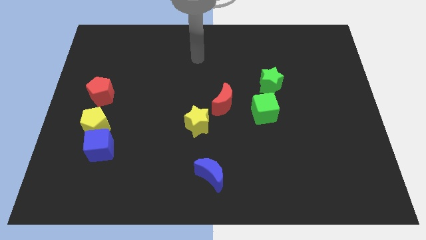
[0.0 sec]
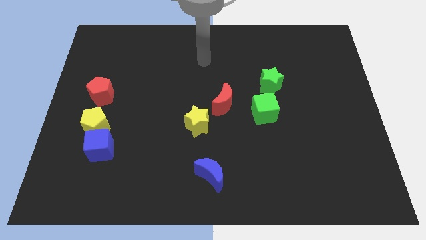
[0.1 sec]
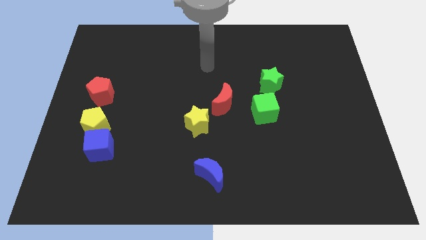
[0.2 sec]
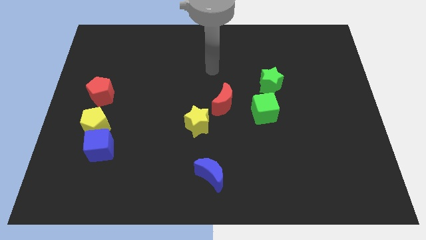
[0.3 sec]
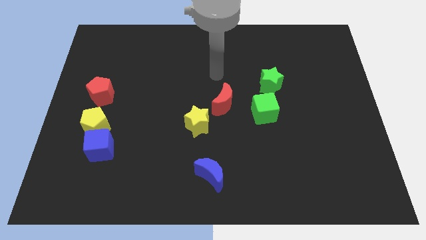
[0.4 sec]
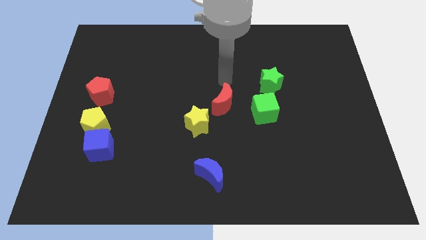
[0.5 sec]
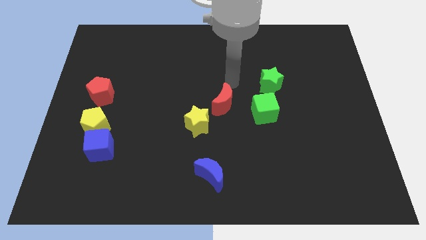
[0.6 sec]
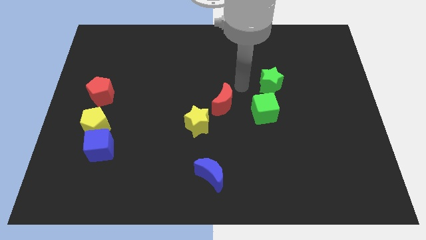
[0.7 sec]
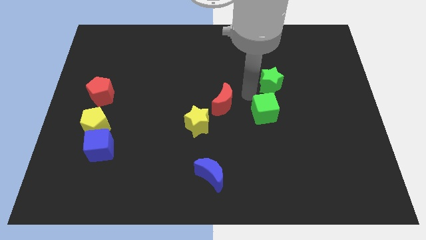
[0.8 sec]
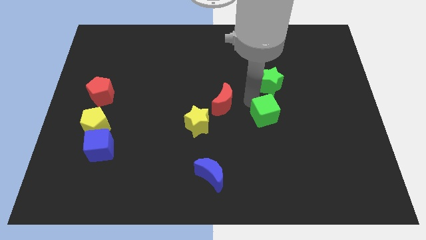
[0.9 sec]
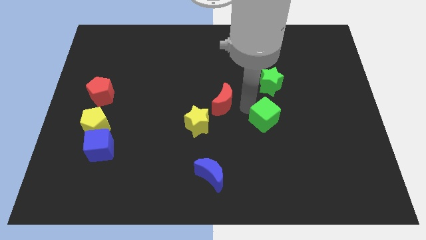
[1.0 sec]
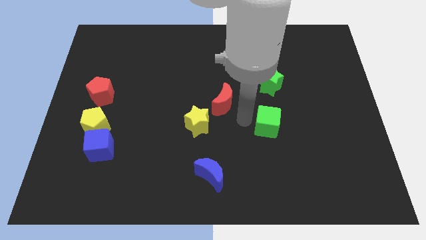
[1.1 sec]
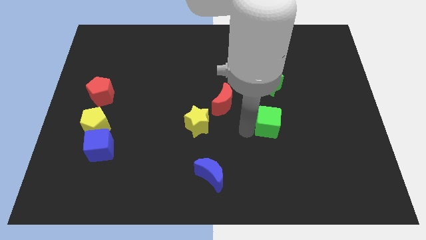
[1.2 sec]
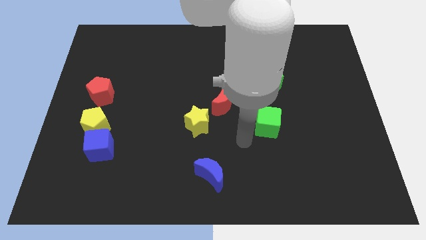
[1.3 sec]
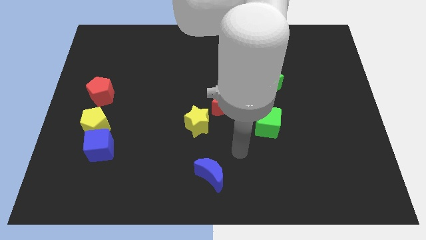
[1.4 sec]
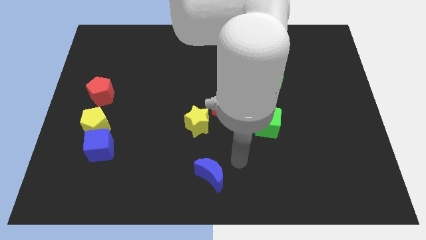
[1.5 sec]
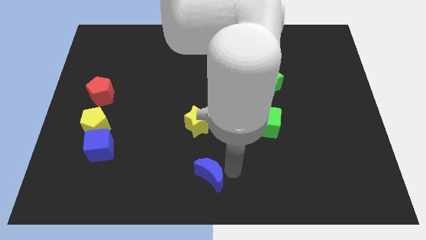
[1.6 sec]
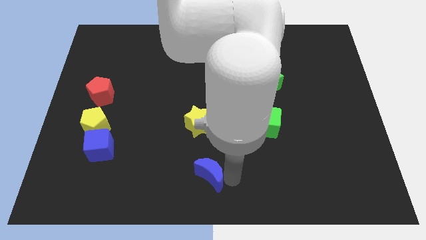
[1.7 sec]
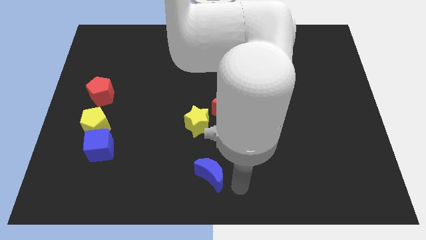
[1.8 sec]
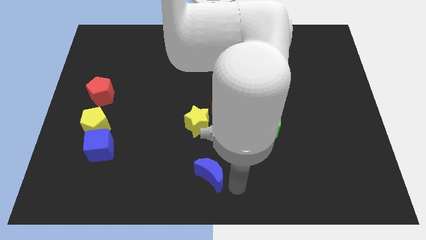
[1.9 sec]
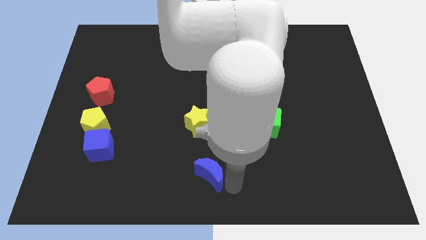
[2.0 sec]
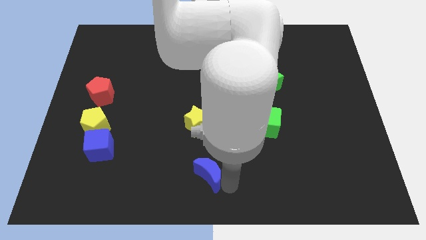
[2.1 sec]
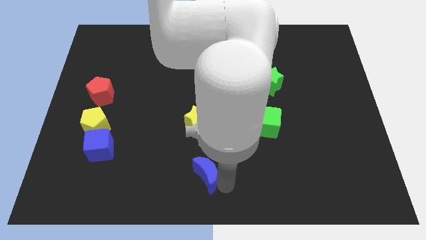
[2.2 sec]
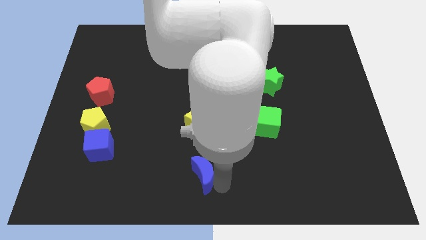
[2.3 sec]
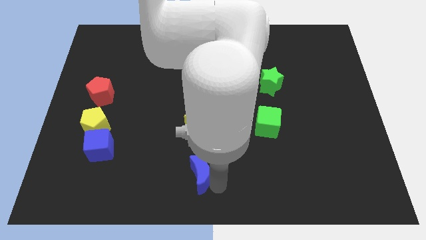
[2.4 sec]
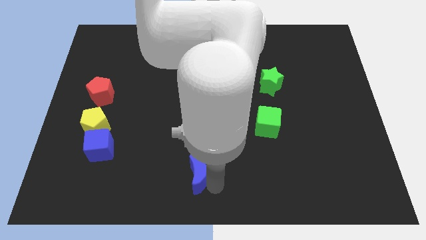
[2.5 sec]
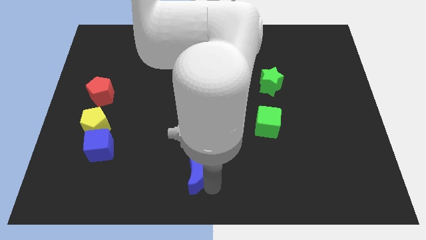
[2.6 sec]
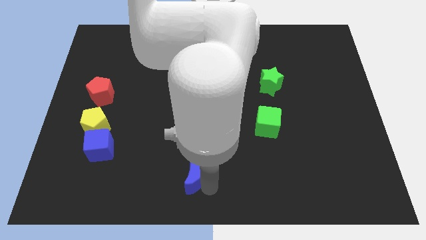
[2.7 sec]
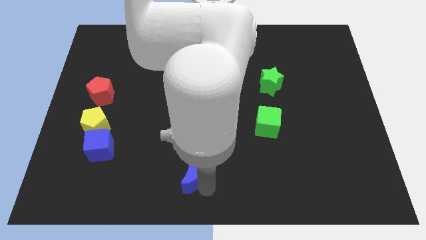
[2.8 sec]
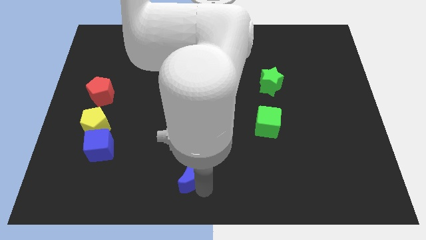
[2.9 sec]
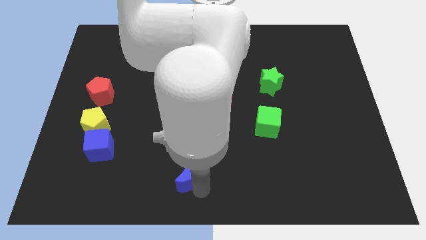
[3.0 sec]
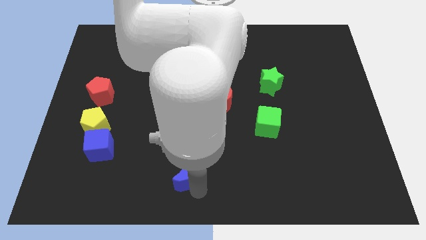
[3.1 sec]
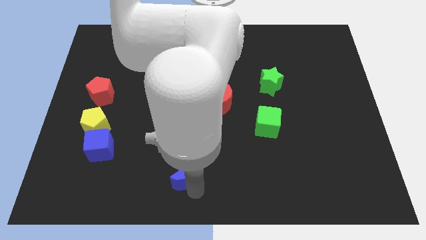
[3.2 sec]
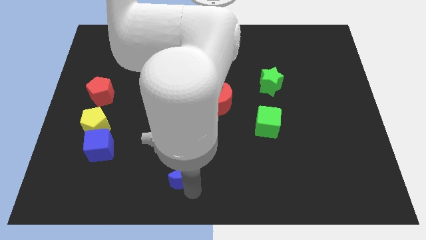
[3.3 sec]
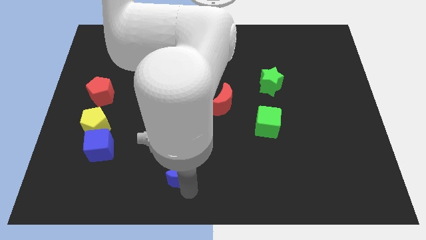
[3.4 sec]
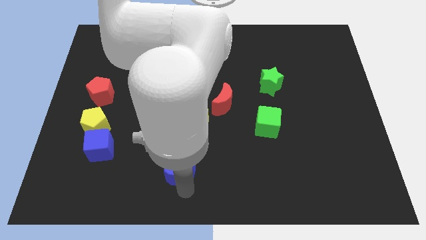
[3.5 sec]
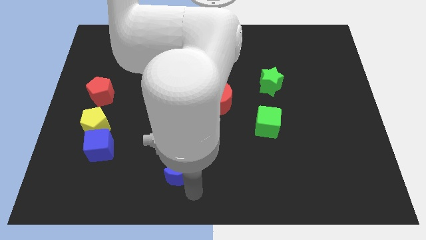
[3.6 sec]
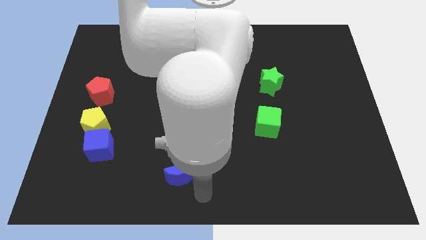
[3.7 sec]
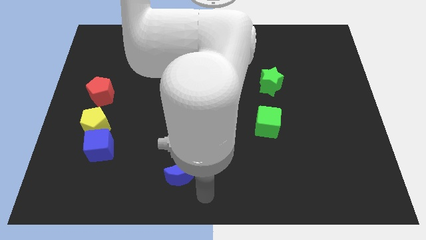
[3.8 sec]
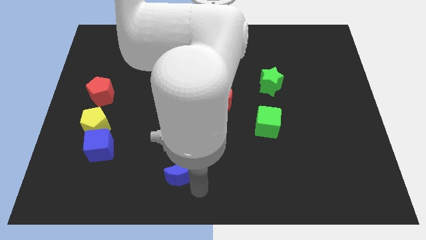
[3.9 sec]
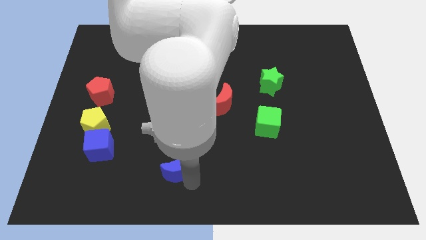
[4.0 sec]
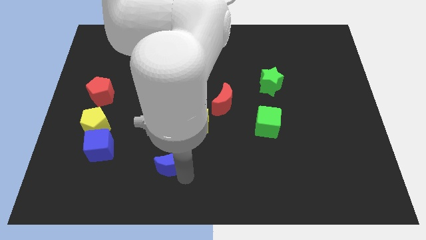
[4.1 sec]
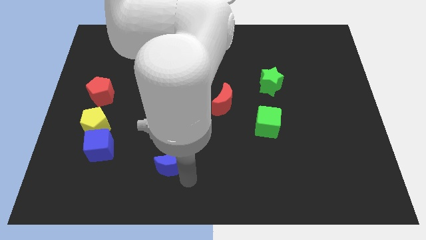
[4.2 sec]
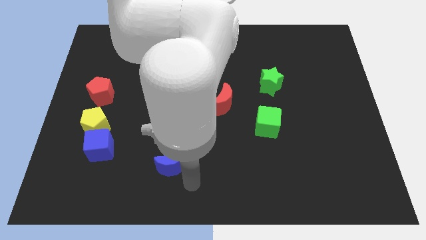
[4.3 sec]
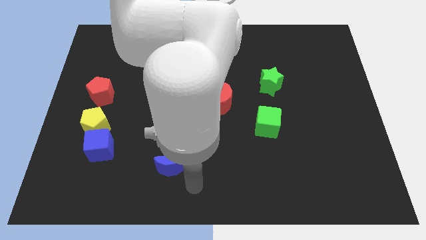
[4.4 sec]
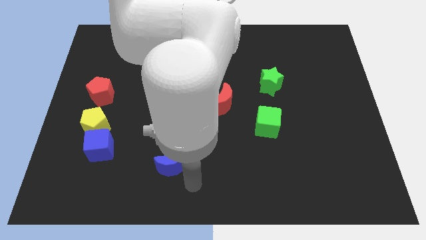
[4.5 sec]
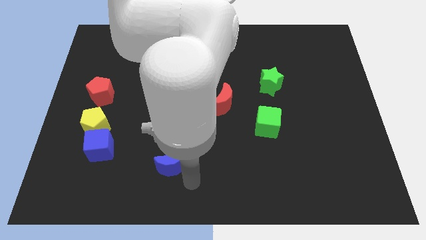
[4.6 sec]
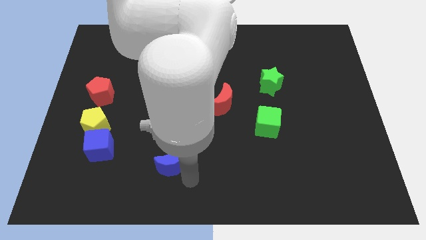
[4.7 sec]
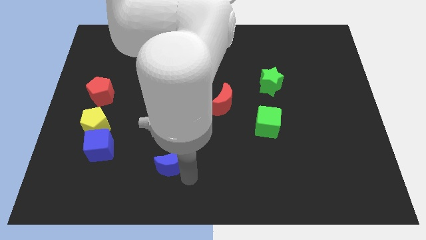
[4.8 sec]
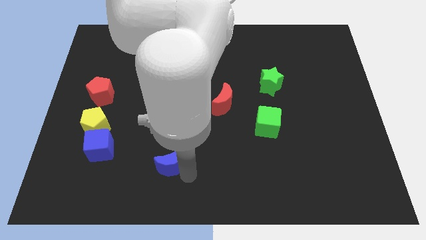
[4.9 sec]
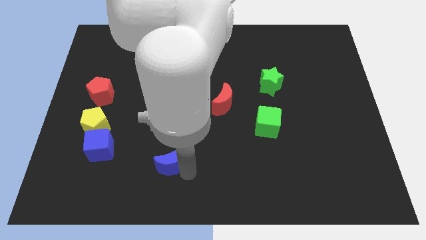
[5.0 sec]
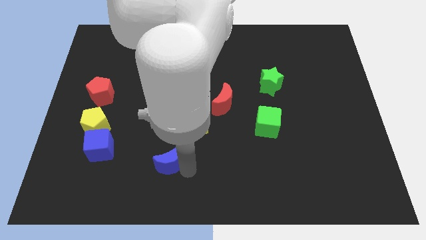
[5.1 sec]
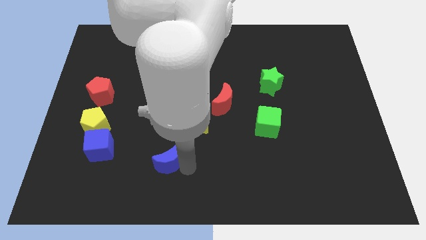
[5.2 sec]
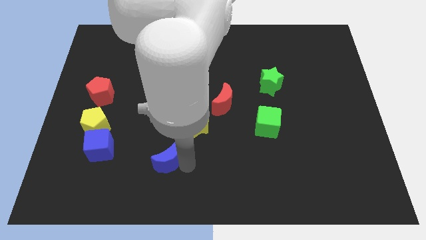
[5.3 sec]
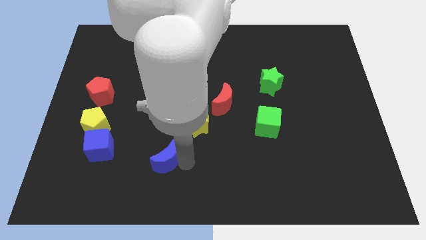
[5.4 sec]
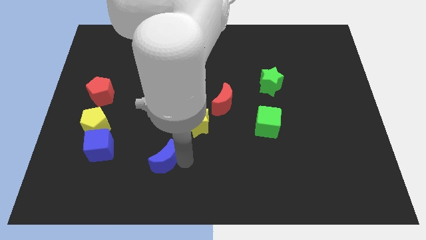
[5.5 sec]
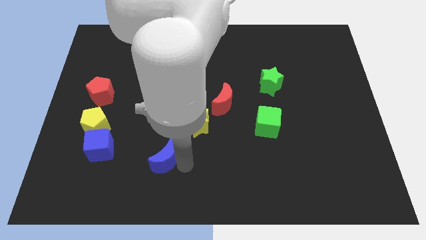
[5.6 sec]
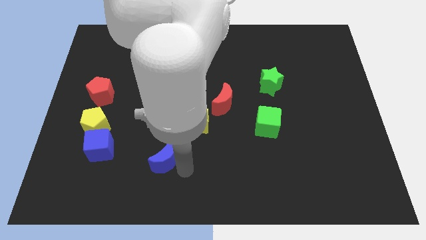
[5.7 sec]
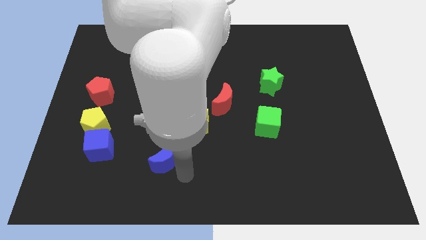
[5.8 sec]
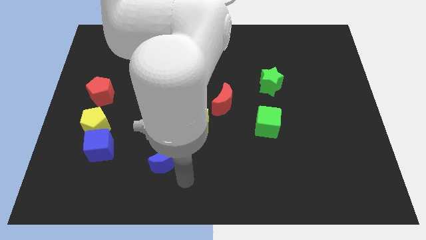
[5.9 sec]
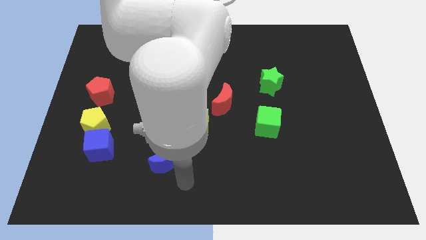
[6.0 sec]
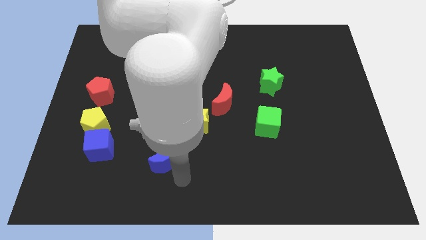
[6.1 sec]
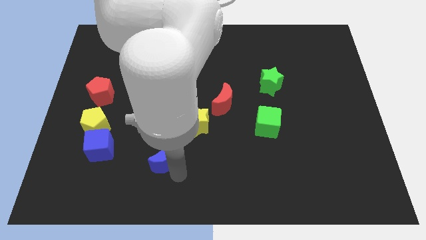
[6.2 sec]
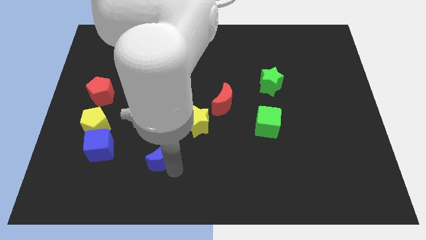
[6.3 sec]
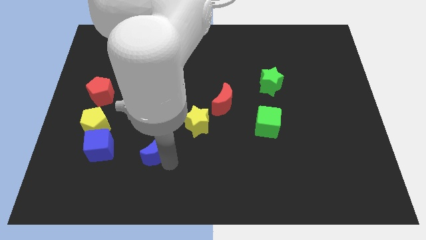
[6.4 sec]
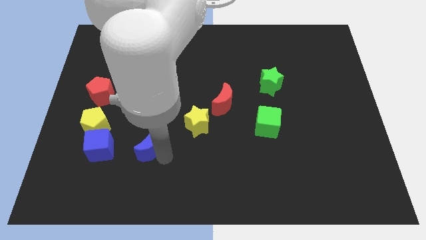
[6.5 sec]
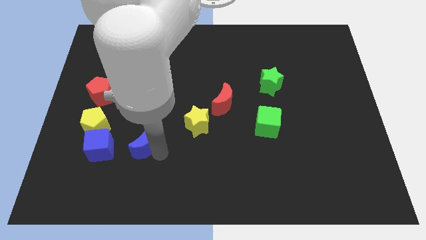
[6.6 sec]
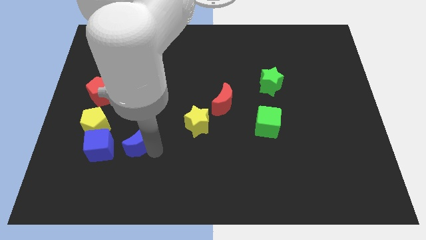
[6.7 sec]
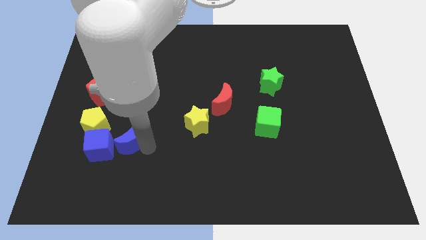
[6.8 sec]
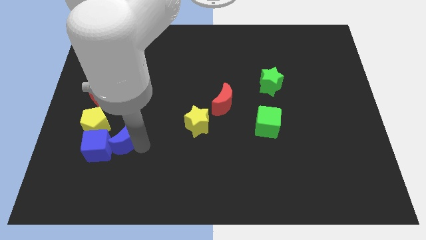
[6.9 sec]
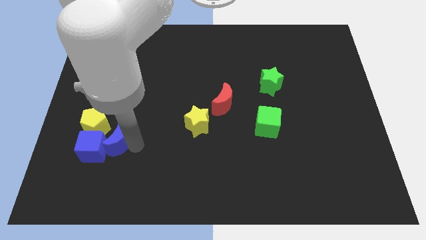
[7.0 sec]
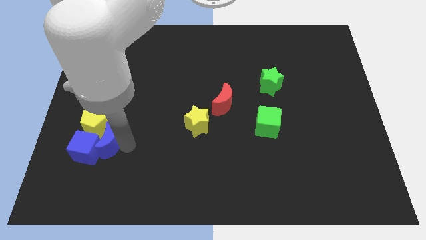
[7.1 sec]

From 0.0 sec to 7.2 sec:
move the blue moon to the yellow pentagon
